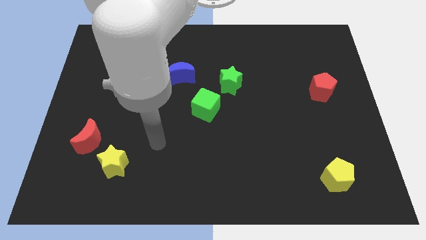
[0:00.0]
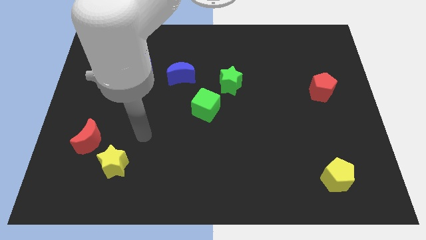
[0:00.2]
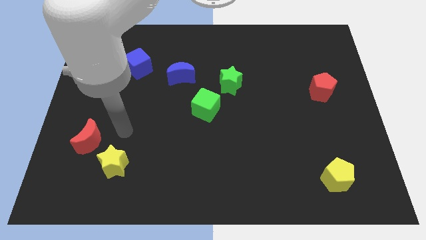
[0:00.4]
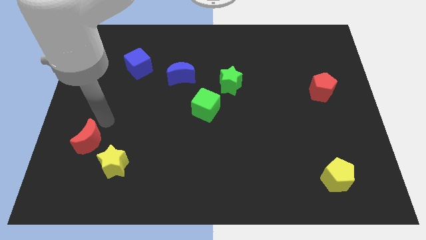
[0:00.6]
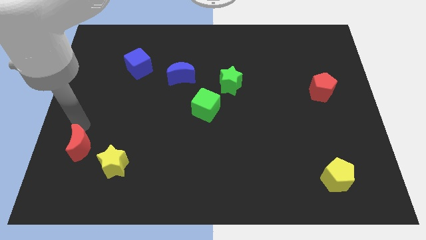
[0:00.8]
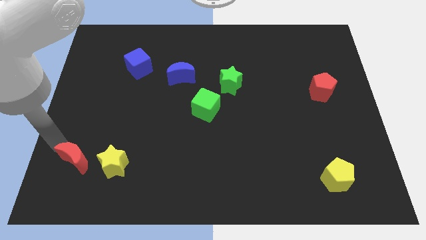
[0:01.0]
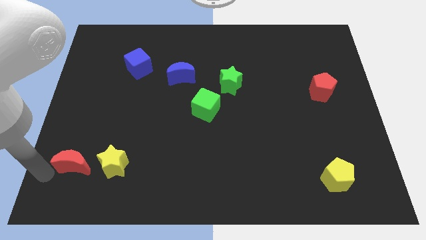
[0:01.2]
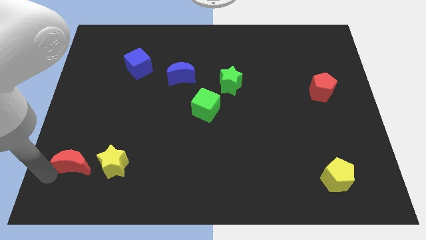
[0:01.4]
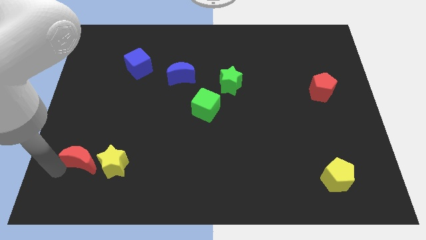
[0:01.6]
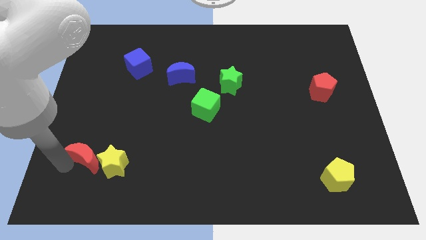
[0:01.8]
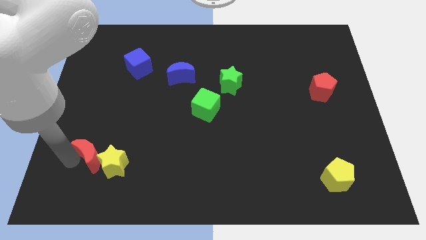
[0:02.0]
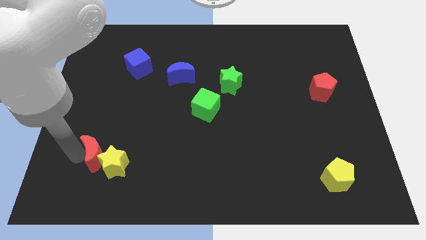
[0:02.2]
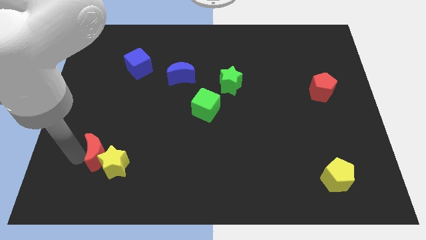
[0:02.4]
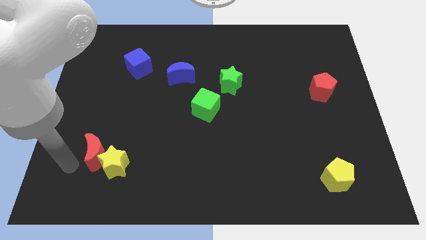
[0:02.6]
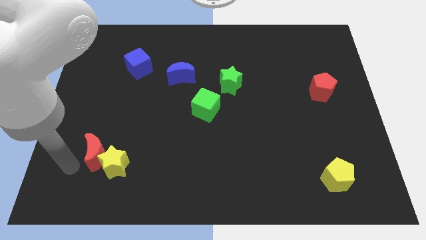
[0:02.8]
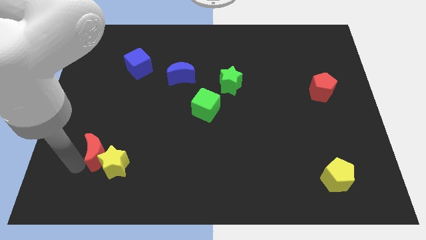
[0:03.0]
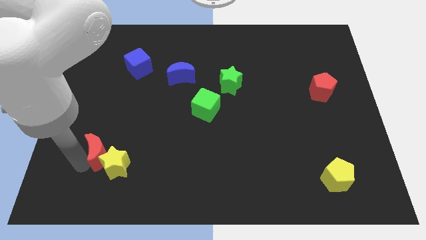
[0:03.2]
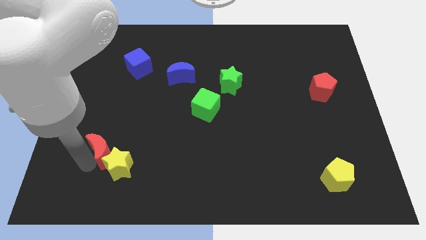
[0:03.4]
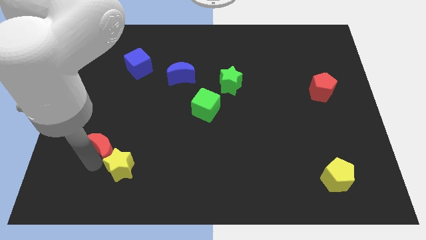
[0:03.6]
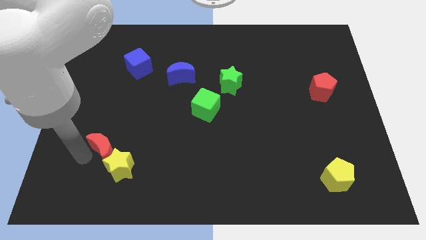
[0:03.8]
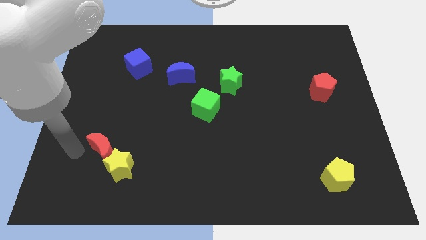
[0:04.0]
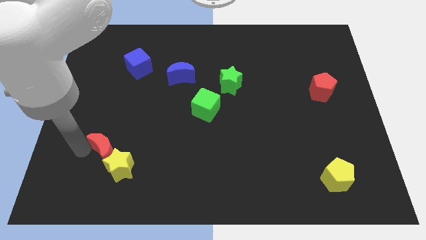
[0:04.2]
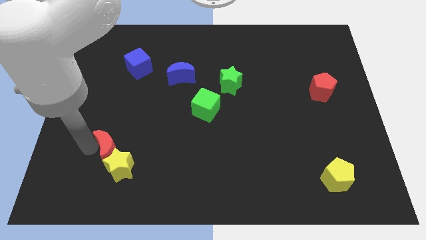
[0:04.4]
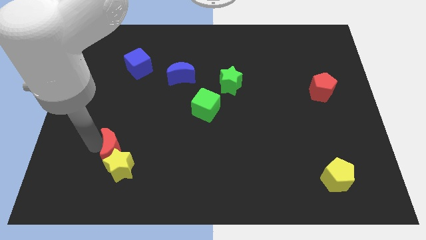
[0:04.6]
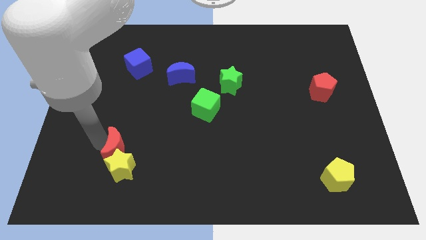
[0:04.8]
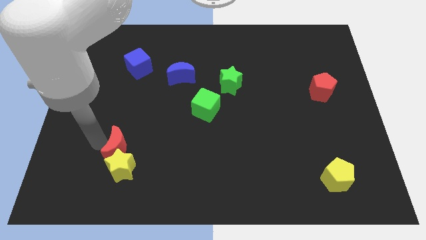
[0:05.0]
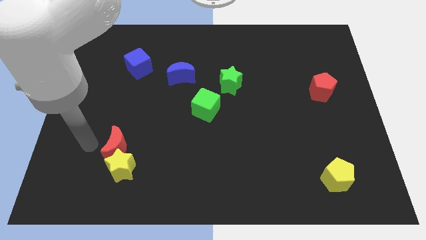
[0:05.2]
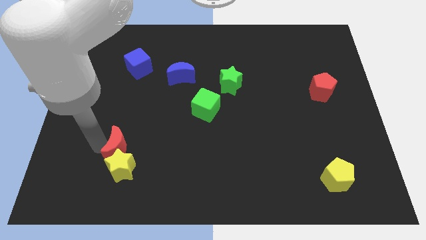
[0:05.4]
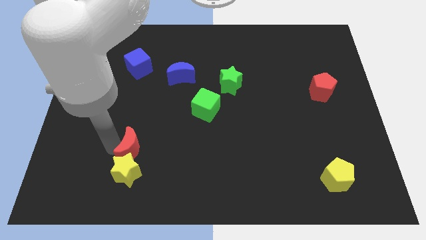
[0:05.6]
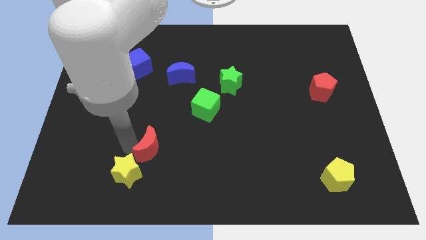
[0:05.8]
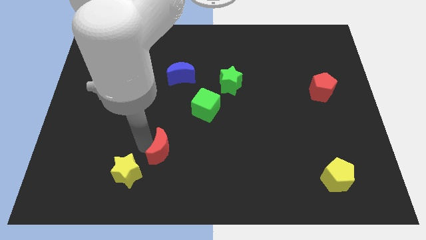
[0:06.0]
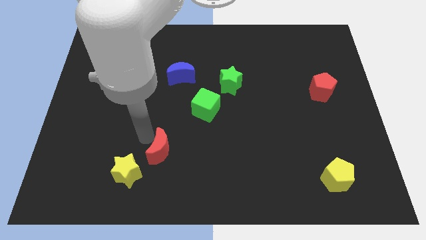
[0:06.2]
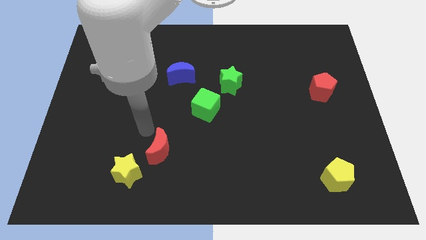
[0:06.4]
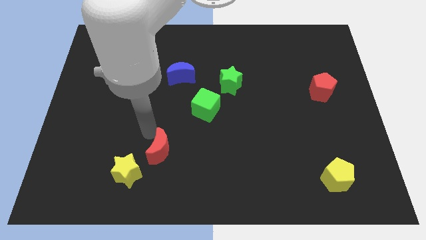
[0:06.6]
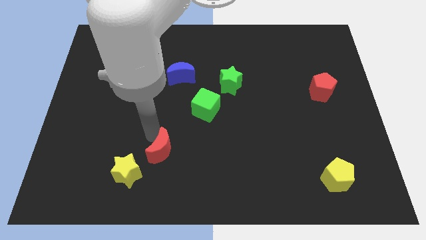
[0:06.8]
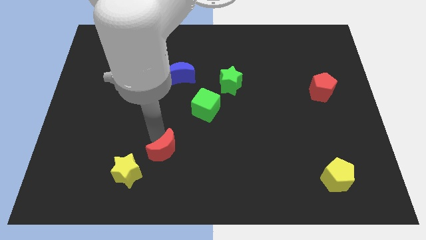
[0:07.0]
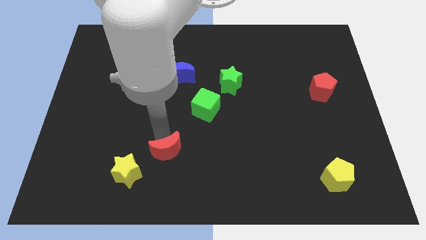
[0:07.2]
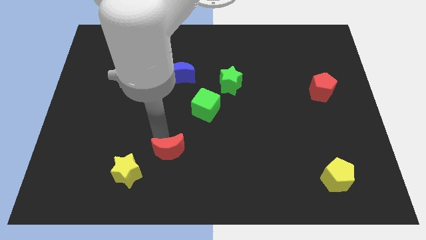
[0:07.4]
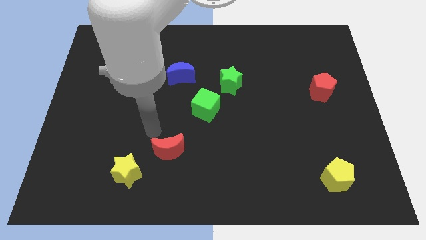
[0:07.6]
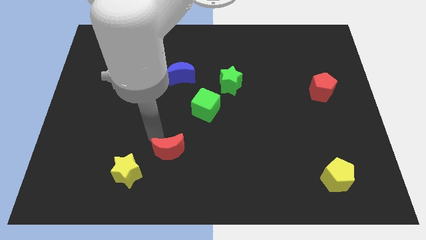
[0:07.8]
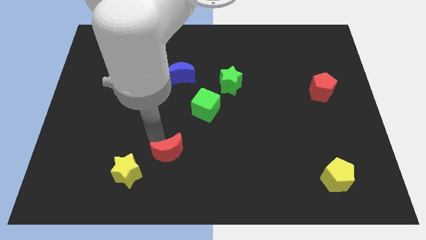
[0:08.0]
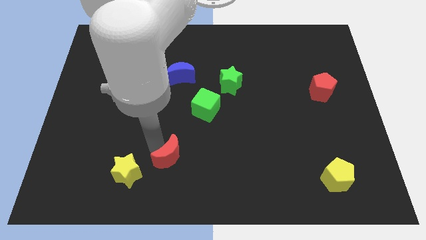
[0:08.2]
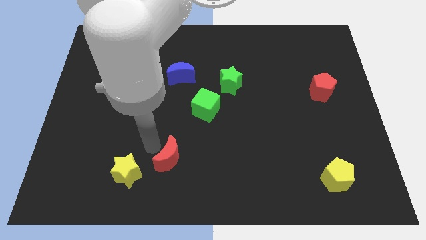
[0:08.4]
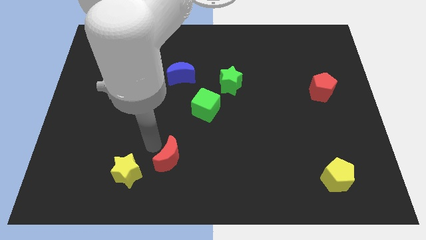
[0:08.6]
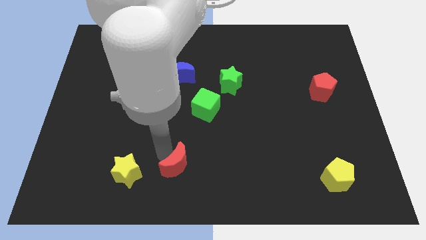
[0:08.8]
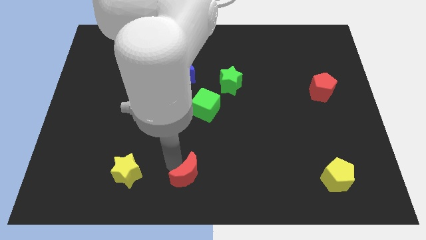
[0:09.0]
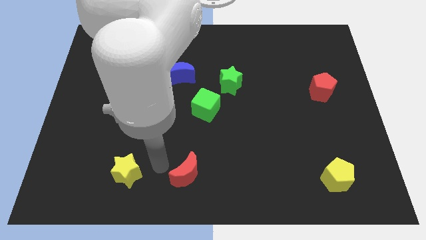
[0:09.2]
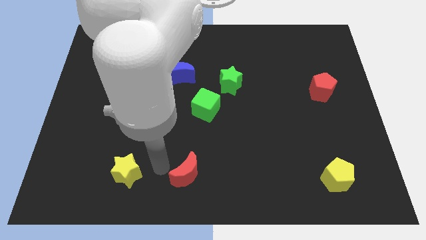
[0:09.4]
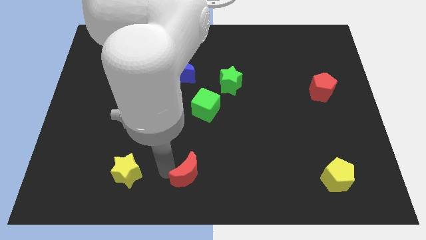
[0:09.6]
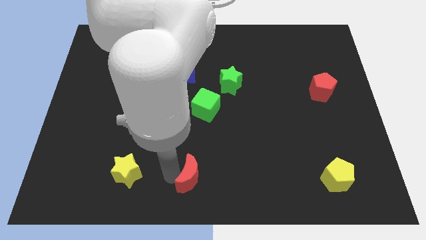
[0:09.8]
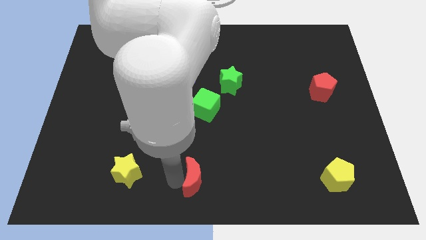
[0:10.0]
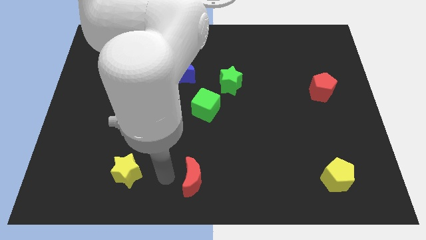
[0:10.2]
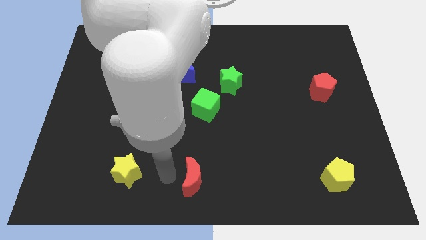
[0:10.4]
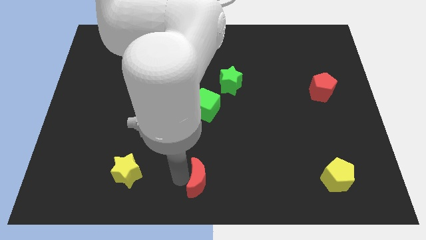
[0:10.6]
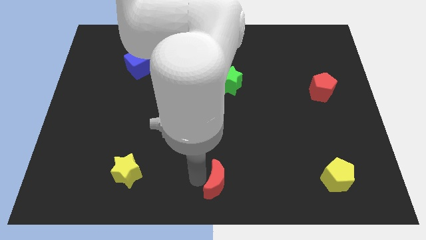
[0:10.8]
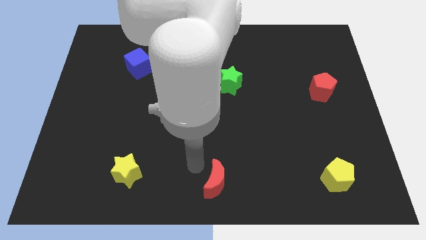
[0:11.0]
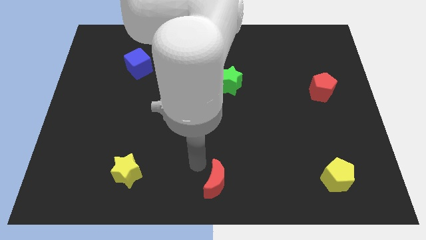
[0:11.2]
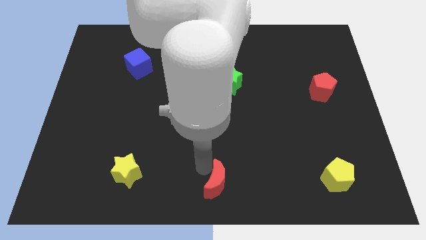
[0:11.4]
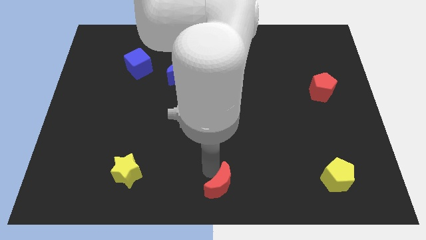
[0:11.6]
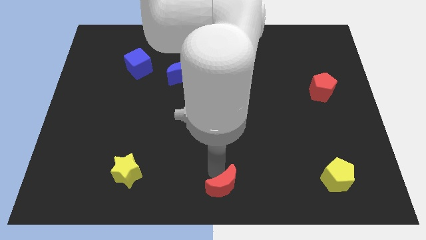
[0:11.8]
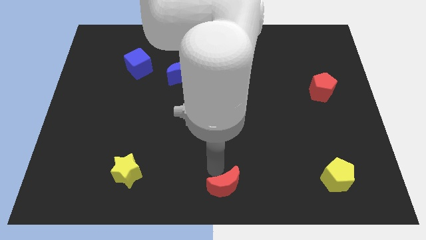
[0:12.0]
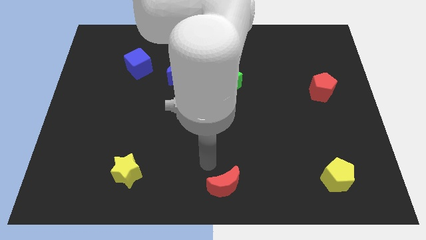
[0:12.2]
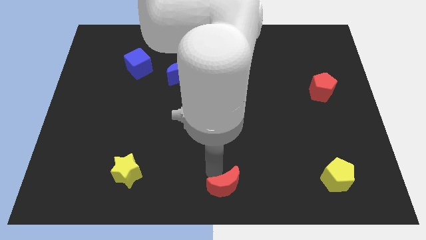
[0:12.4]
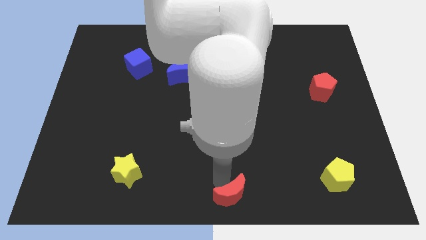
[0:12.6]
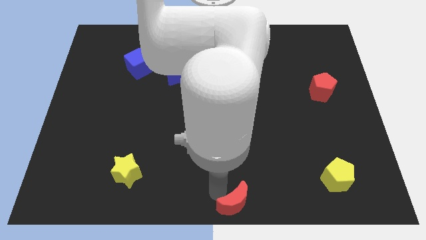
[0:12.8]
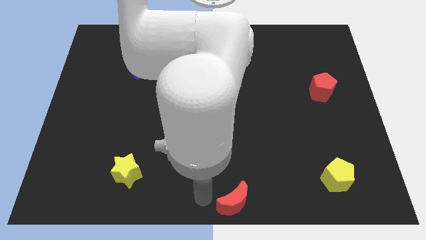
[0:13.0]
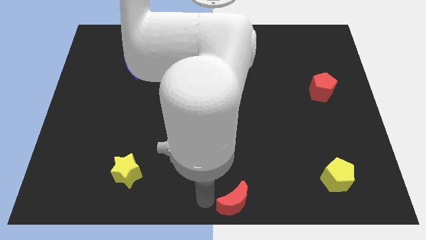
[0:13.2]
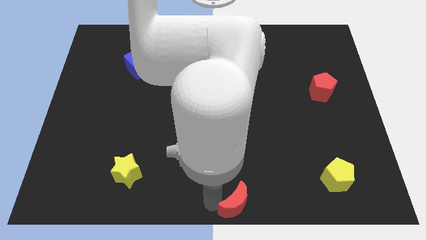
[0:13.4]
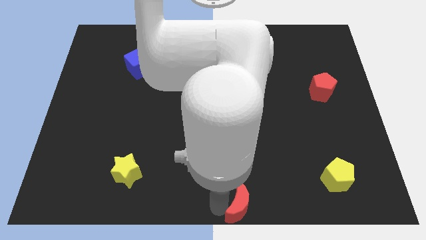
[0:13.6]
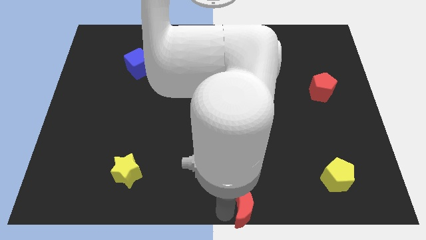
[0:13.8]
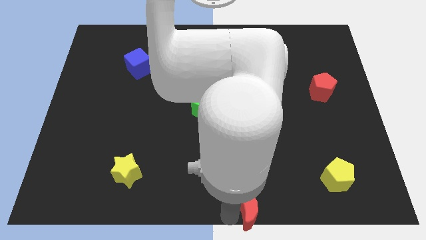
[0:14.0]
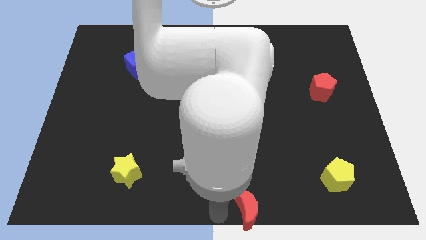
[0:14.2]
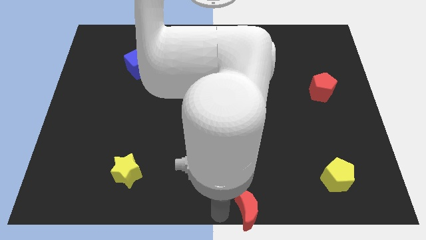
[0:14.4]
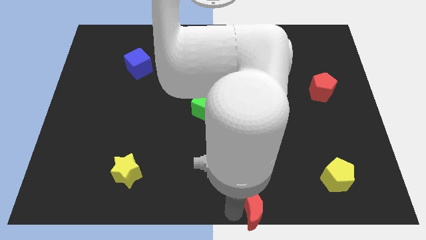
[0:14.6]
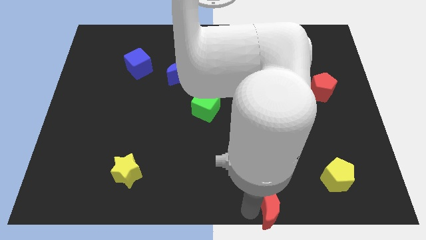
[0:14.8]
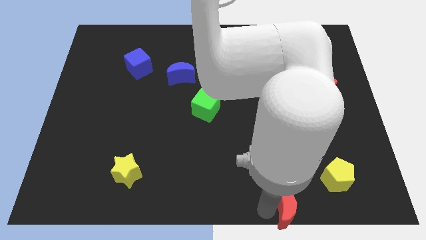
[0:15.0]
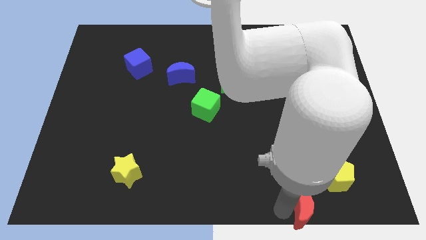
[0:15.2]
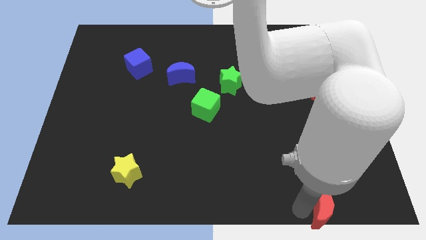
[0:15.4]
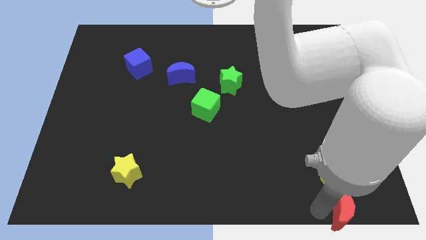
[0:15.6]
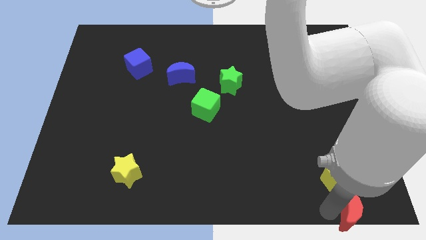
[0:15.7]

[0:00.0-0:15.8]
move the red moon to the bottom right of the board
